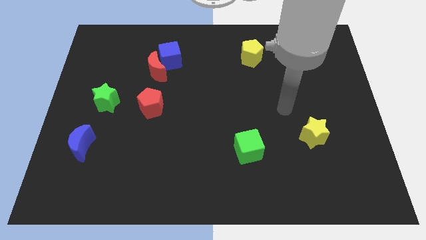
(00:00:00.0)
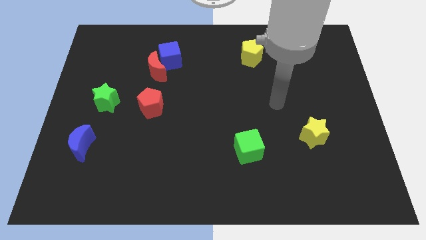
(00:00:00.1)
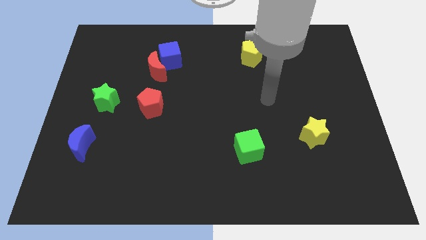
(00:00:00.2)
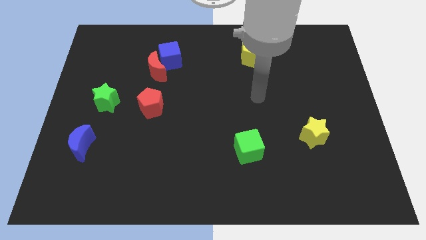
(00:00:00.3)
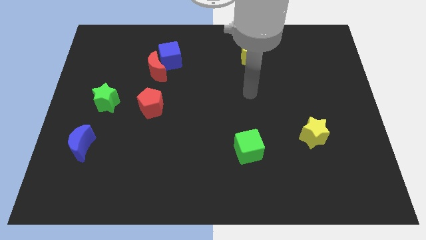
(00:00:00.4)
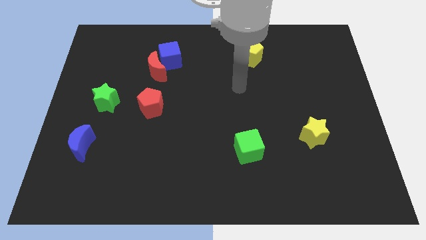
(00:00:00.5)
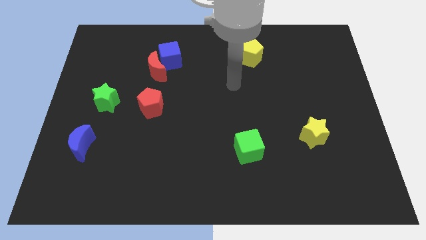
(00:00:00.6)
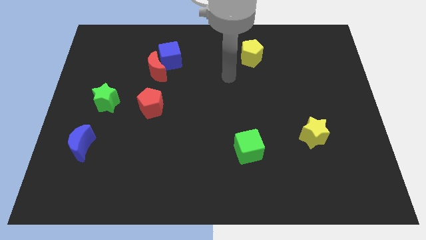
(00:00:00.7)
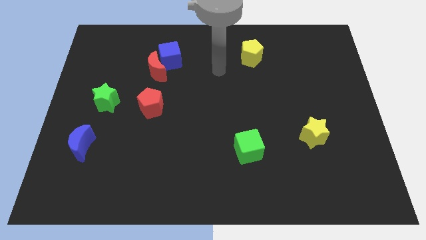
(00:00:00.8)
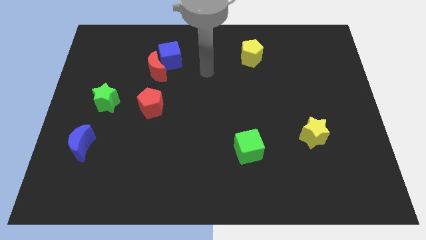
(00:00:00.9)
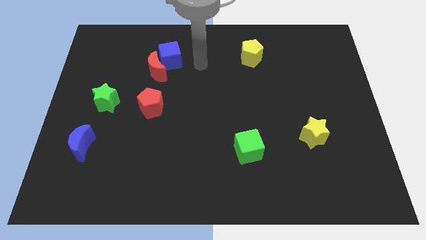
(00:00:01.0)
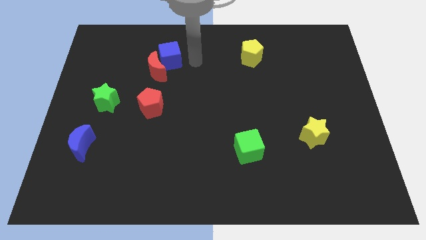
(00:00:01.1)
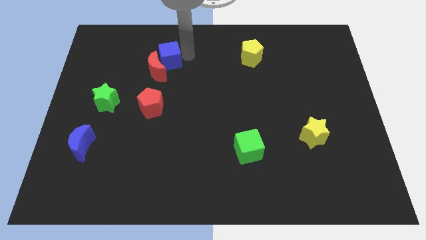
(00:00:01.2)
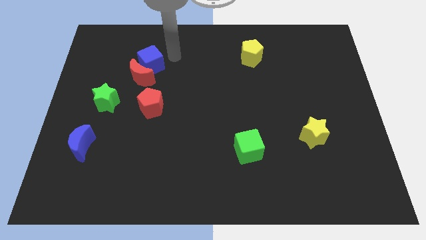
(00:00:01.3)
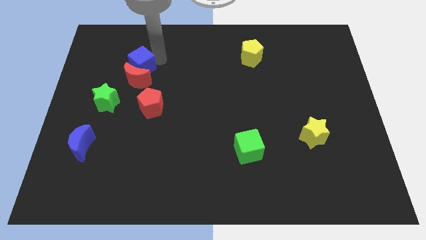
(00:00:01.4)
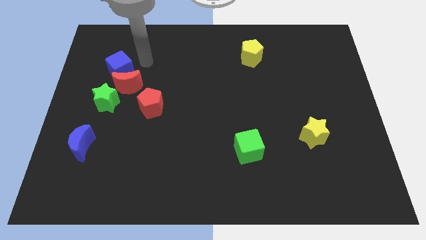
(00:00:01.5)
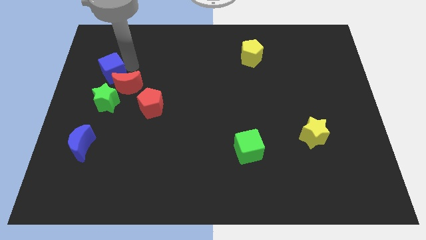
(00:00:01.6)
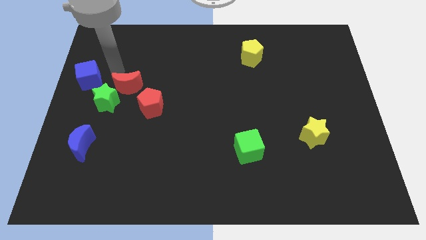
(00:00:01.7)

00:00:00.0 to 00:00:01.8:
separate the red moon from the blue cube

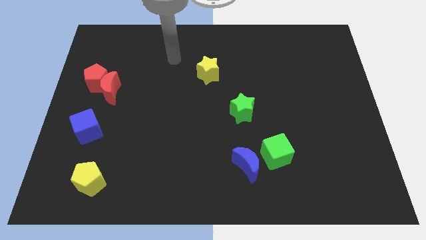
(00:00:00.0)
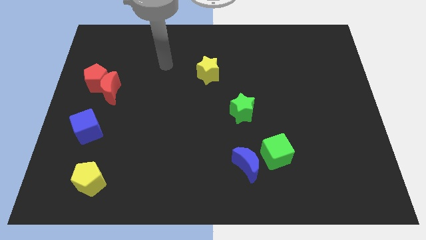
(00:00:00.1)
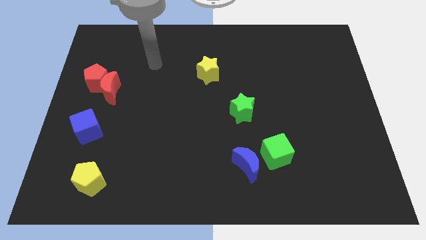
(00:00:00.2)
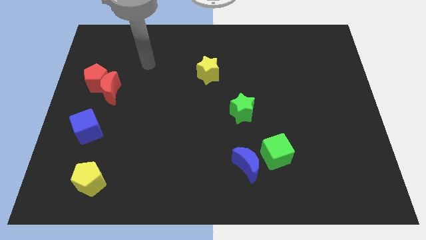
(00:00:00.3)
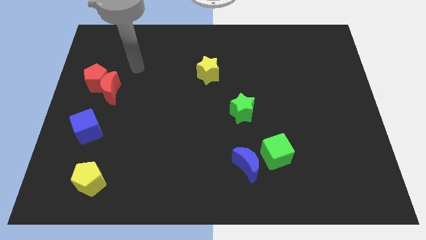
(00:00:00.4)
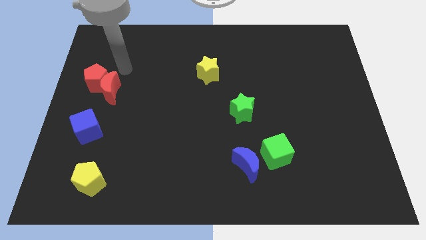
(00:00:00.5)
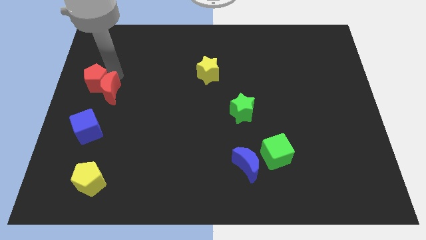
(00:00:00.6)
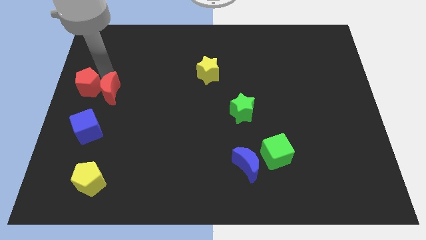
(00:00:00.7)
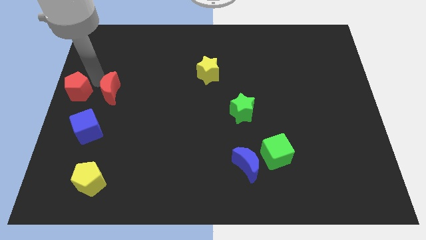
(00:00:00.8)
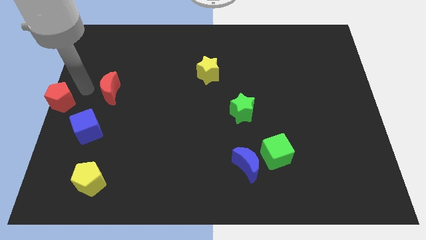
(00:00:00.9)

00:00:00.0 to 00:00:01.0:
separate the red moon from the red pentagon

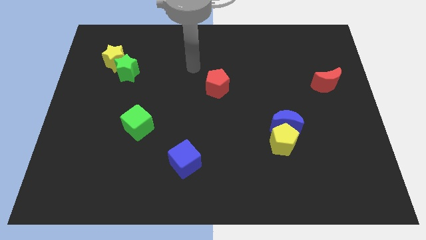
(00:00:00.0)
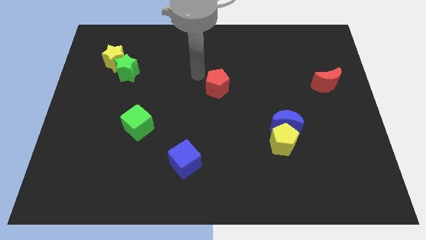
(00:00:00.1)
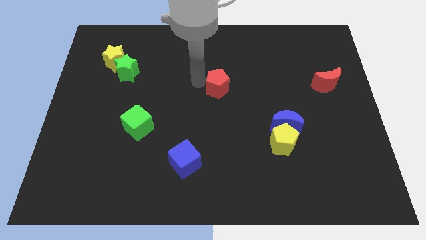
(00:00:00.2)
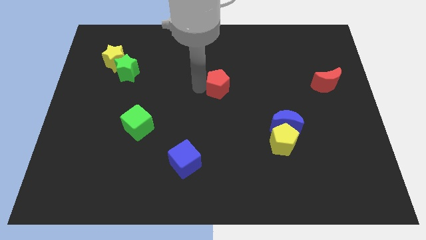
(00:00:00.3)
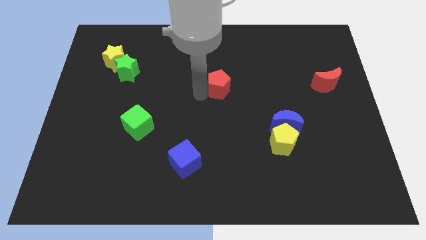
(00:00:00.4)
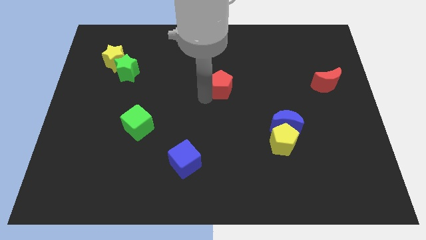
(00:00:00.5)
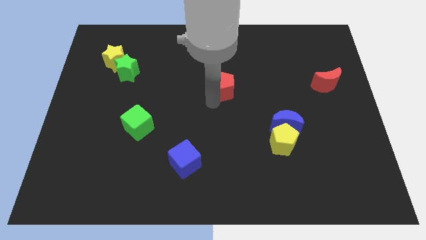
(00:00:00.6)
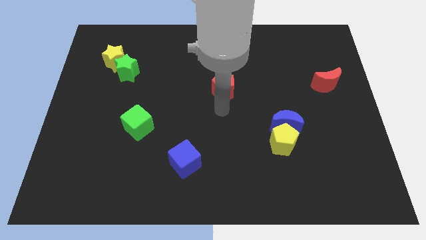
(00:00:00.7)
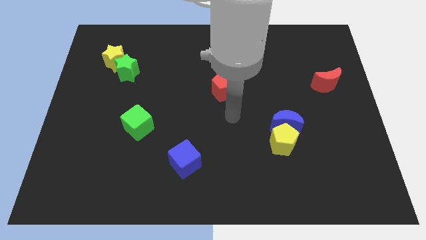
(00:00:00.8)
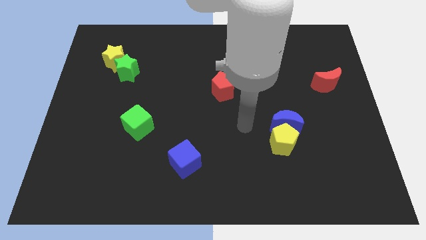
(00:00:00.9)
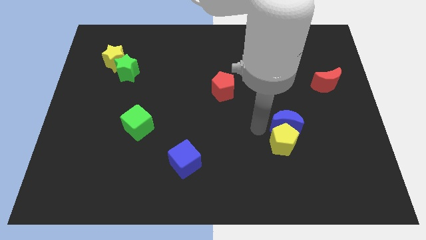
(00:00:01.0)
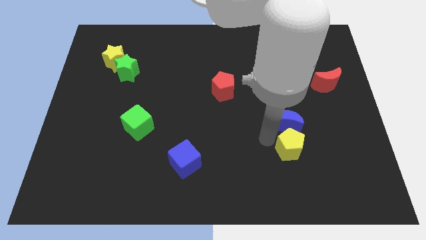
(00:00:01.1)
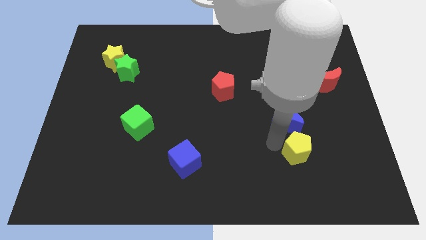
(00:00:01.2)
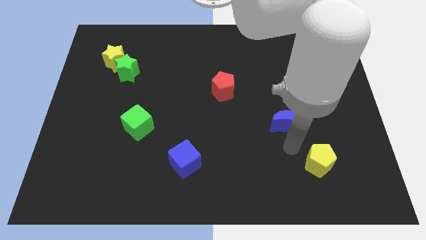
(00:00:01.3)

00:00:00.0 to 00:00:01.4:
separate the blue moon from the yellow pentagon

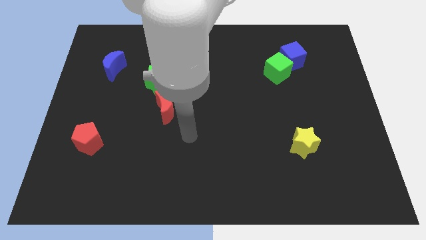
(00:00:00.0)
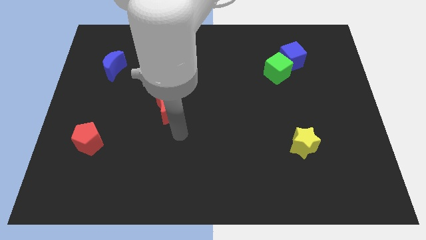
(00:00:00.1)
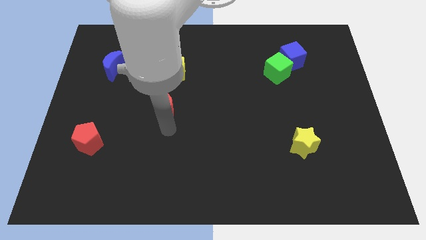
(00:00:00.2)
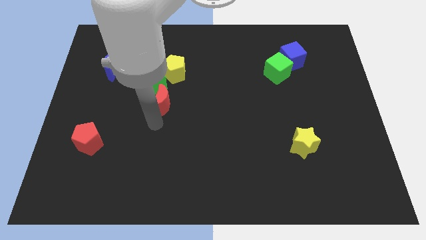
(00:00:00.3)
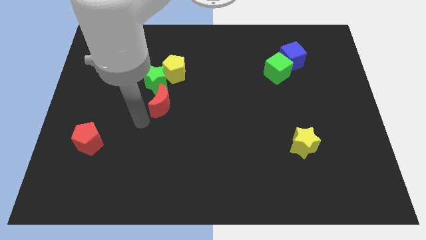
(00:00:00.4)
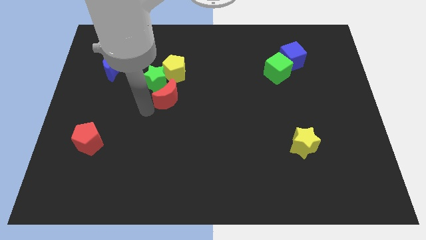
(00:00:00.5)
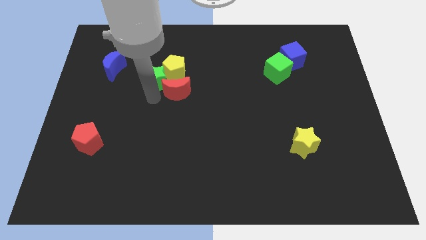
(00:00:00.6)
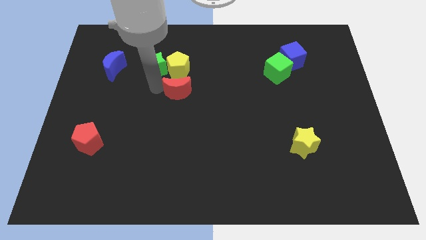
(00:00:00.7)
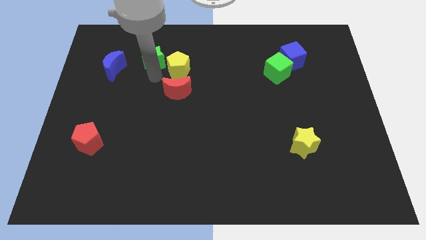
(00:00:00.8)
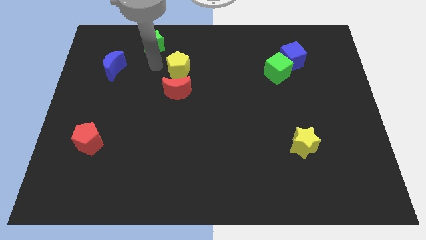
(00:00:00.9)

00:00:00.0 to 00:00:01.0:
move the yellow pentagon away from the green star

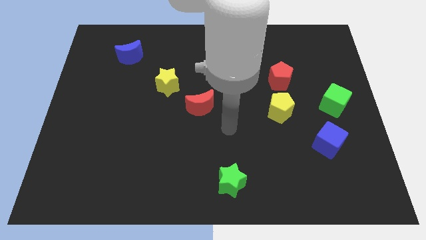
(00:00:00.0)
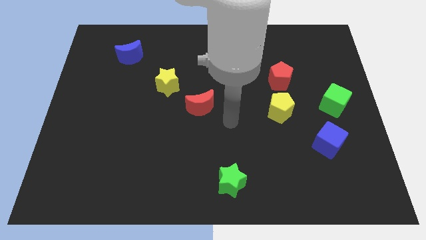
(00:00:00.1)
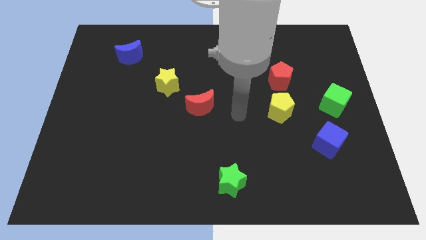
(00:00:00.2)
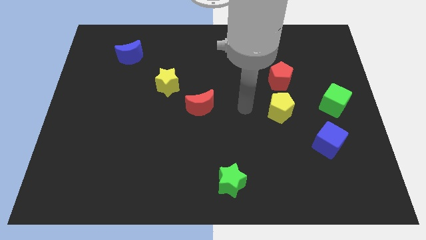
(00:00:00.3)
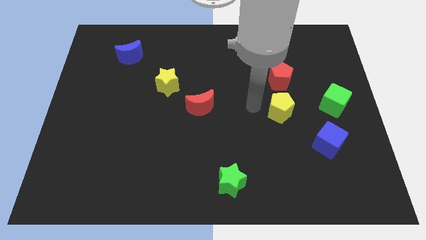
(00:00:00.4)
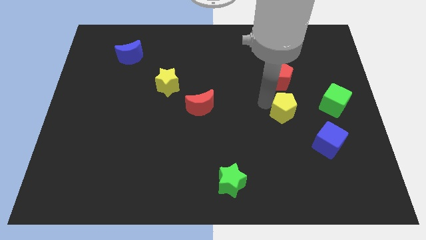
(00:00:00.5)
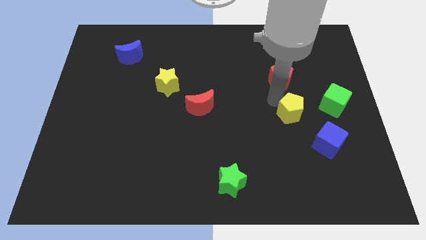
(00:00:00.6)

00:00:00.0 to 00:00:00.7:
move the red pentagon away from the yellow pentagon

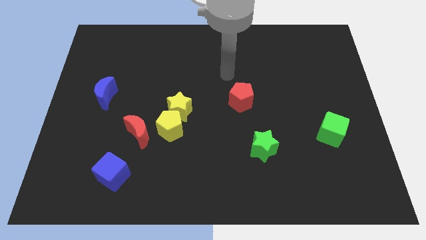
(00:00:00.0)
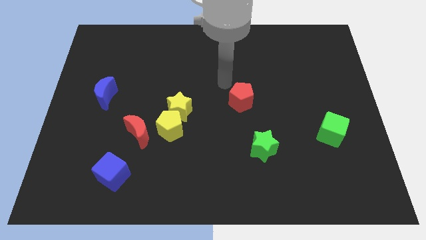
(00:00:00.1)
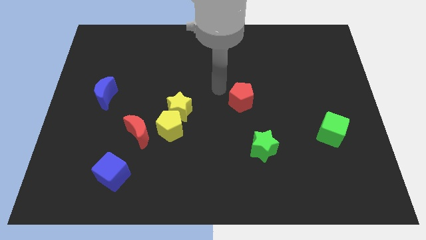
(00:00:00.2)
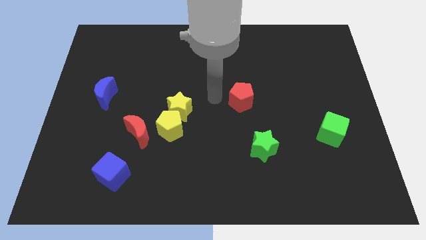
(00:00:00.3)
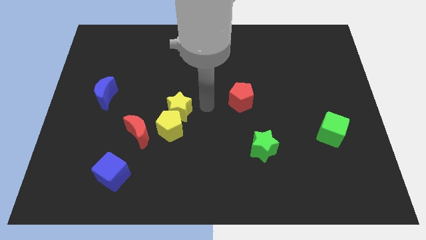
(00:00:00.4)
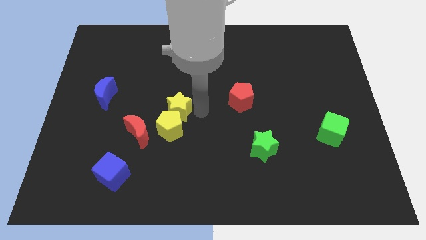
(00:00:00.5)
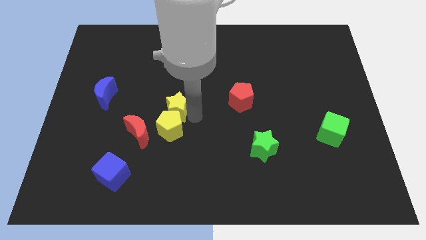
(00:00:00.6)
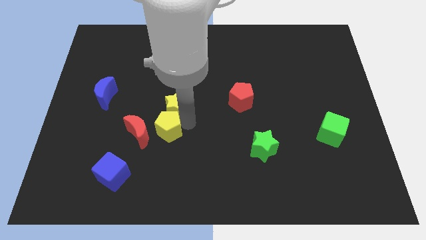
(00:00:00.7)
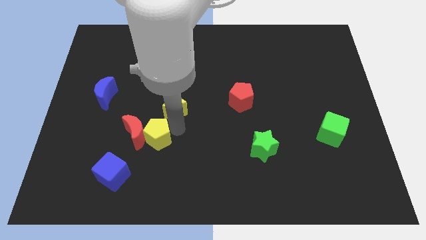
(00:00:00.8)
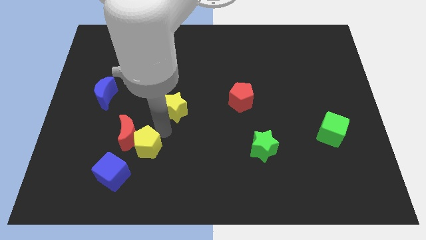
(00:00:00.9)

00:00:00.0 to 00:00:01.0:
pull the yellow star apart from the yellow pentagon

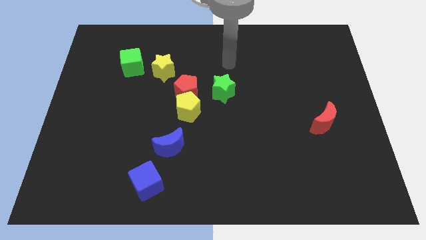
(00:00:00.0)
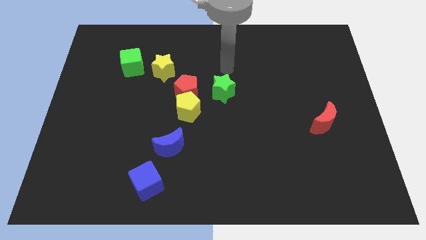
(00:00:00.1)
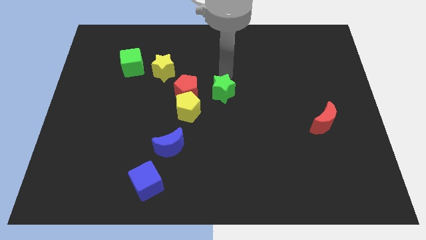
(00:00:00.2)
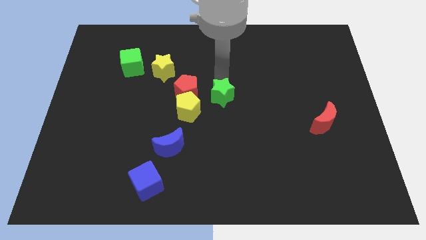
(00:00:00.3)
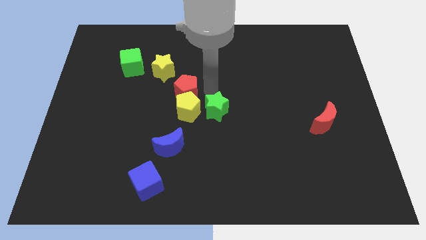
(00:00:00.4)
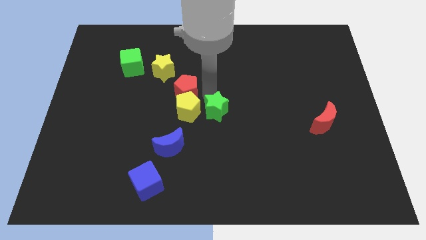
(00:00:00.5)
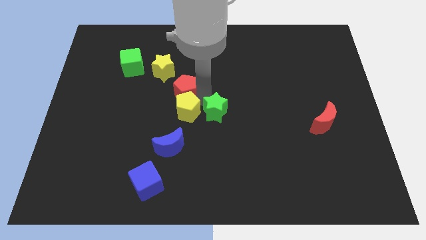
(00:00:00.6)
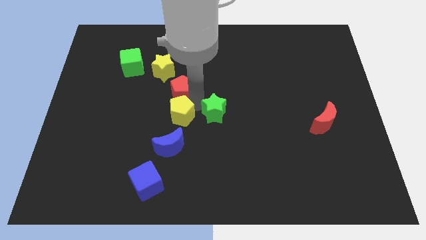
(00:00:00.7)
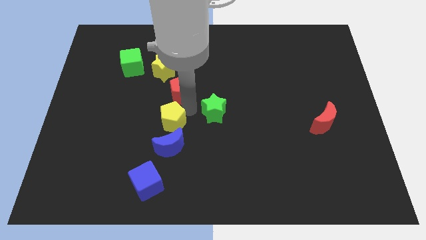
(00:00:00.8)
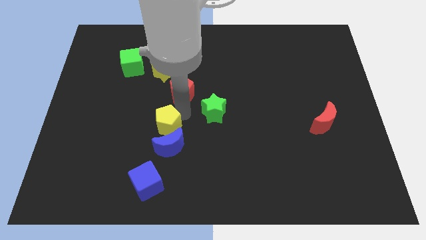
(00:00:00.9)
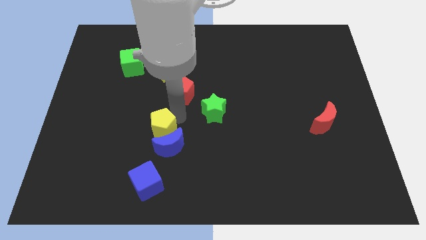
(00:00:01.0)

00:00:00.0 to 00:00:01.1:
separate the yellow pentagon from the red pentagon and green star

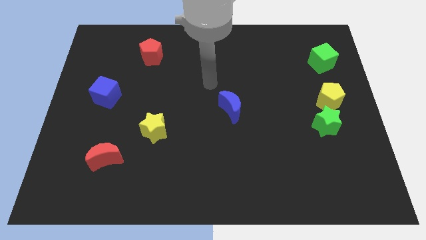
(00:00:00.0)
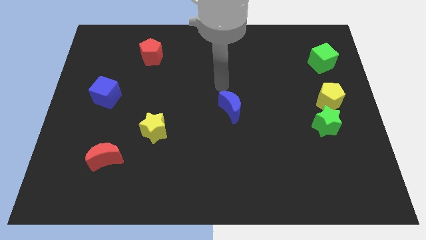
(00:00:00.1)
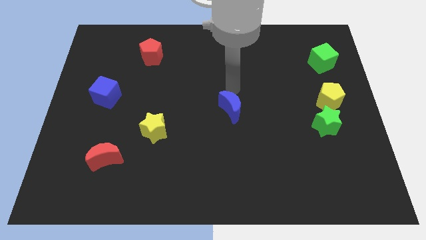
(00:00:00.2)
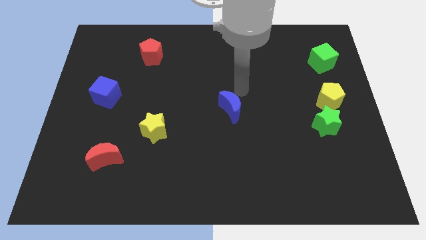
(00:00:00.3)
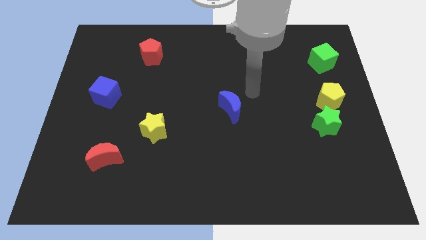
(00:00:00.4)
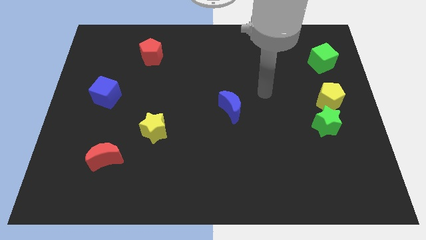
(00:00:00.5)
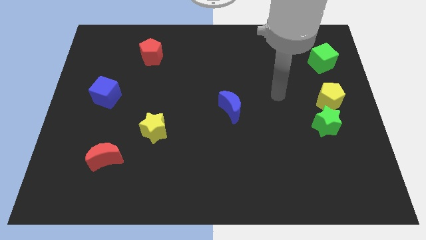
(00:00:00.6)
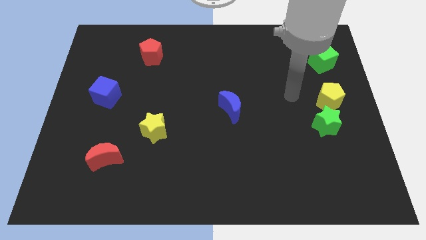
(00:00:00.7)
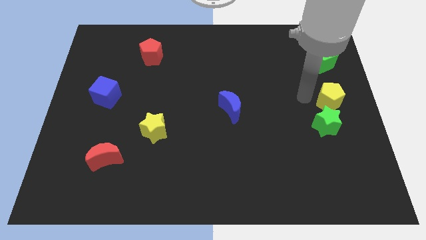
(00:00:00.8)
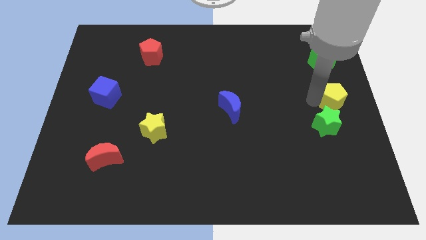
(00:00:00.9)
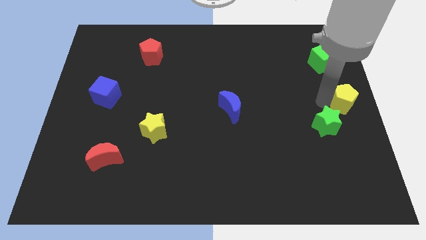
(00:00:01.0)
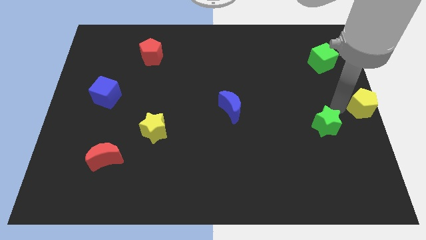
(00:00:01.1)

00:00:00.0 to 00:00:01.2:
move the green star away from the yellow pentagon
